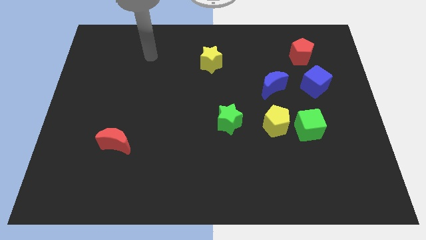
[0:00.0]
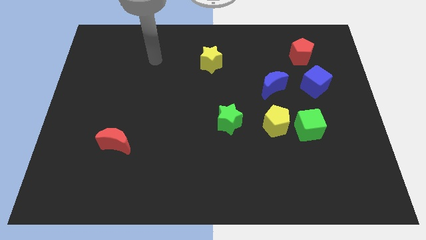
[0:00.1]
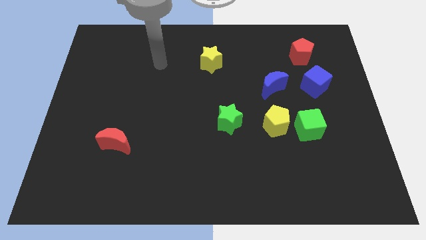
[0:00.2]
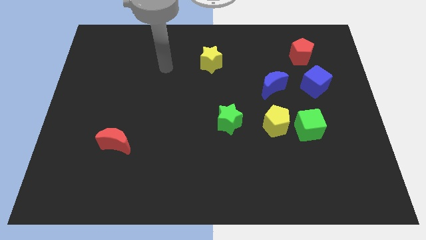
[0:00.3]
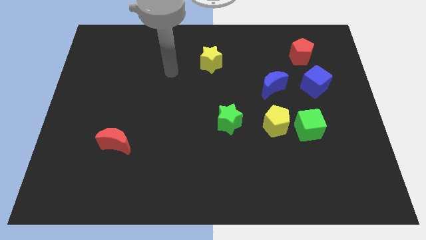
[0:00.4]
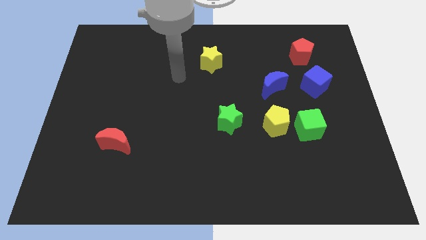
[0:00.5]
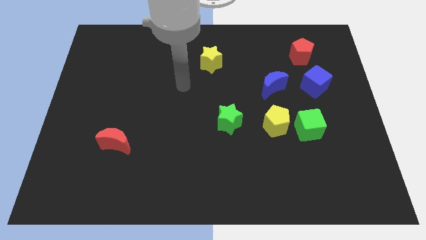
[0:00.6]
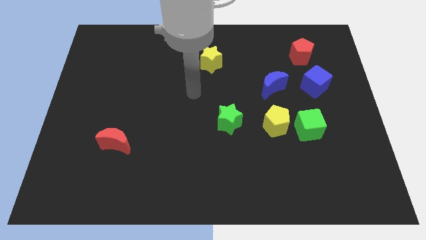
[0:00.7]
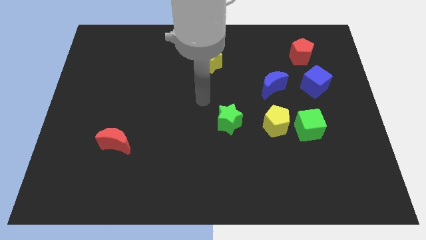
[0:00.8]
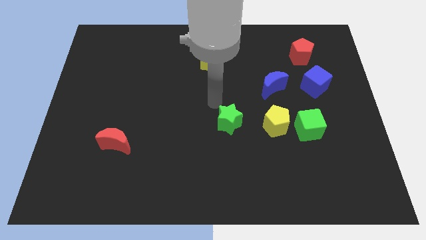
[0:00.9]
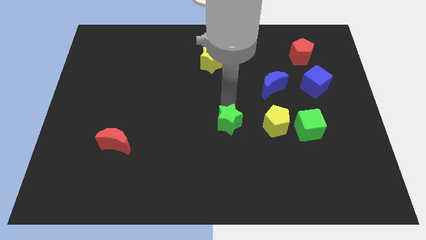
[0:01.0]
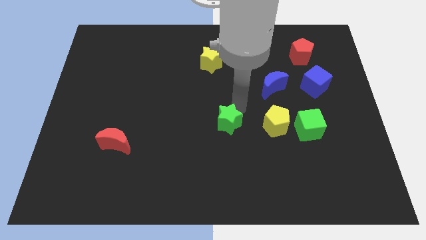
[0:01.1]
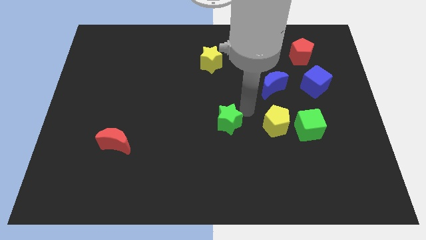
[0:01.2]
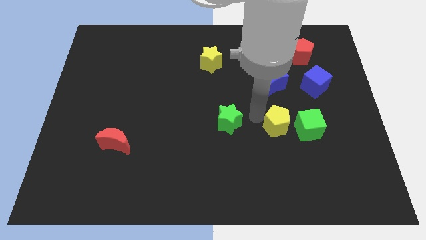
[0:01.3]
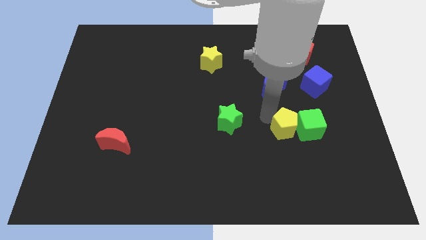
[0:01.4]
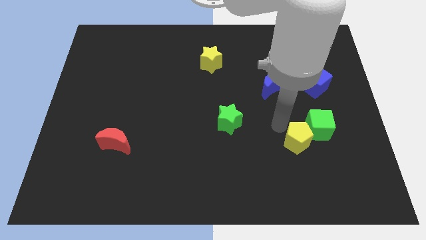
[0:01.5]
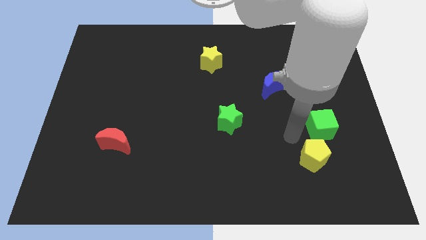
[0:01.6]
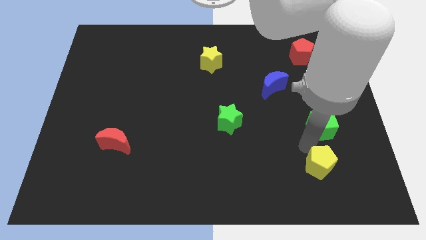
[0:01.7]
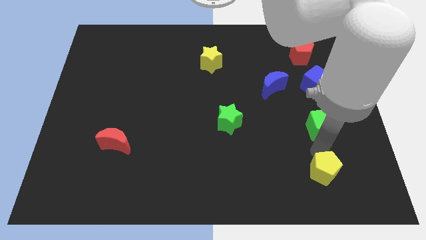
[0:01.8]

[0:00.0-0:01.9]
separate the green cube from the yellow pentagon

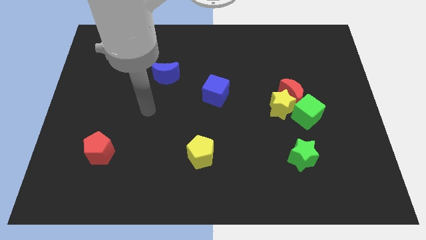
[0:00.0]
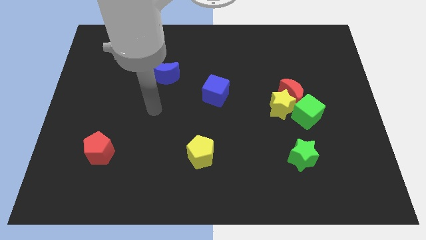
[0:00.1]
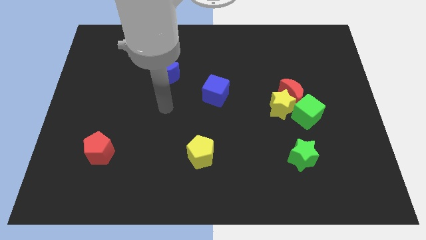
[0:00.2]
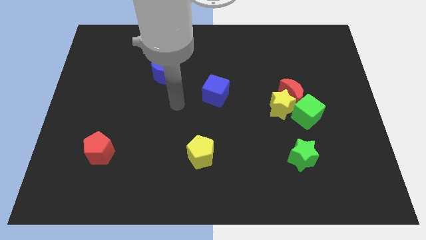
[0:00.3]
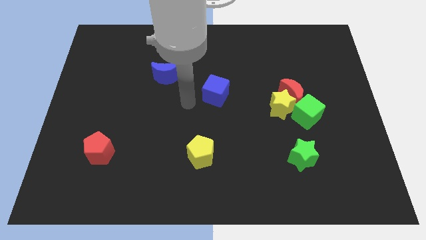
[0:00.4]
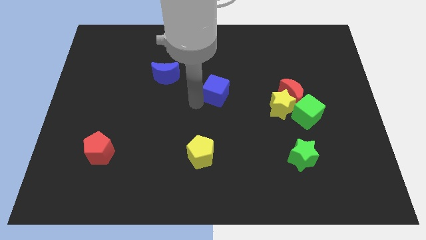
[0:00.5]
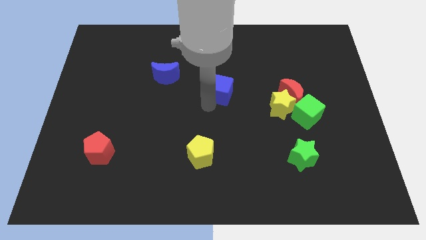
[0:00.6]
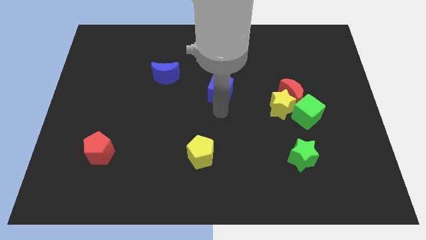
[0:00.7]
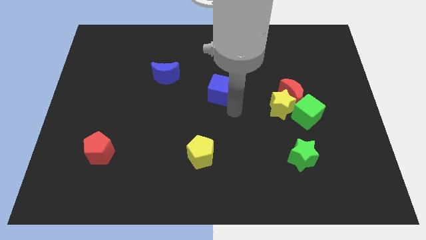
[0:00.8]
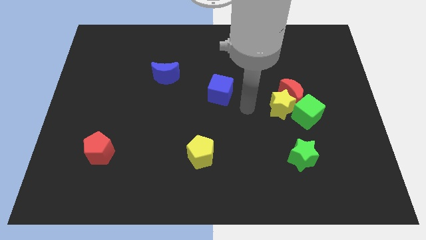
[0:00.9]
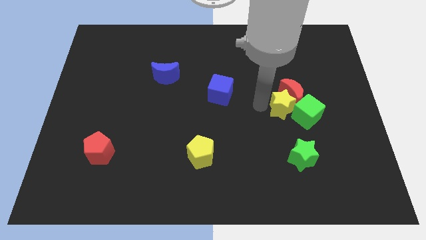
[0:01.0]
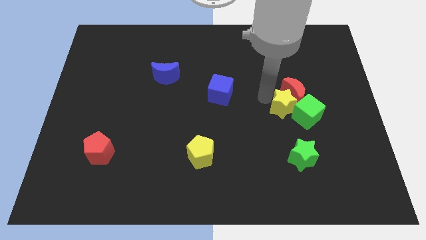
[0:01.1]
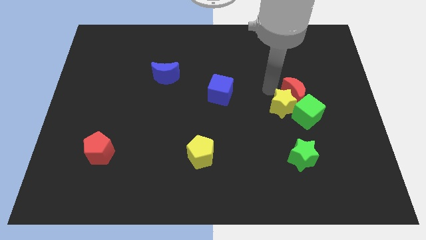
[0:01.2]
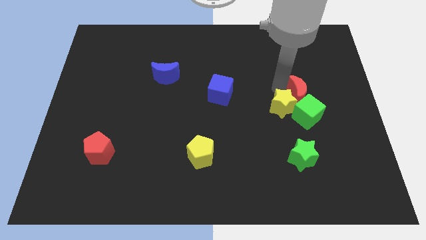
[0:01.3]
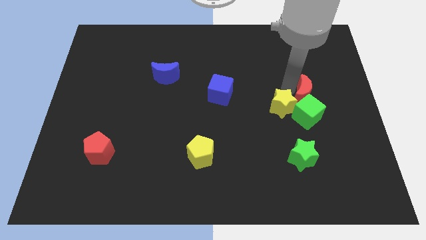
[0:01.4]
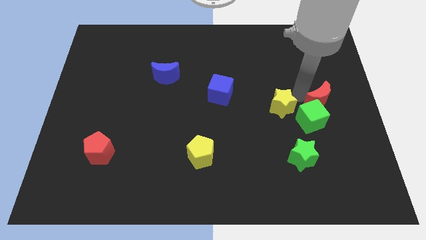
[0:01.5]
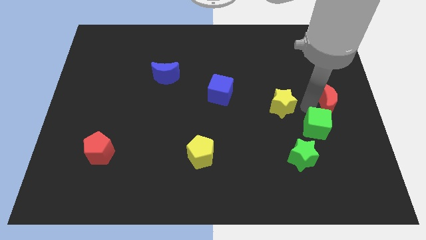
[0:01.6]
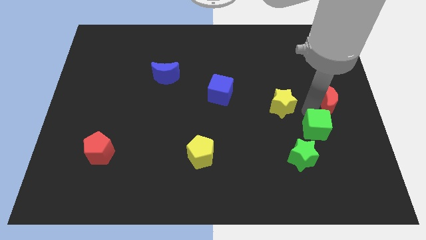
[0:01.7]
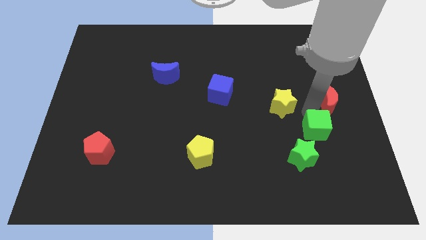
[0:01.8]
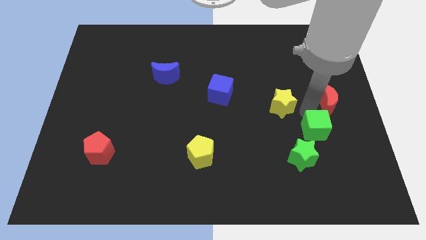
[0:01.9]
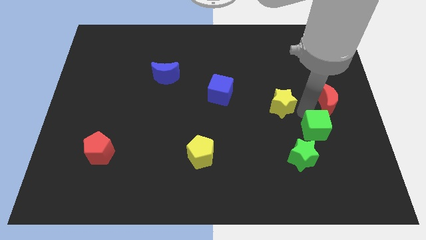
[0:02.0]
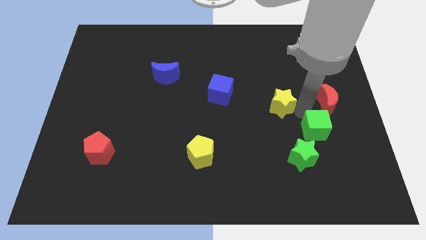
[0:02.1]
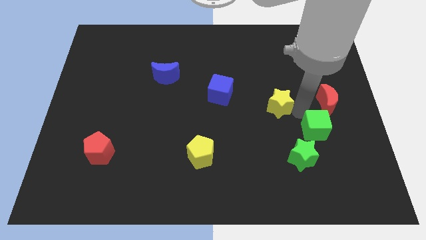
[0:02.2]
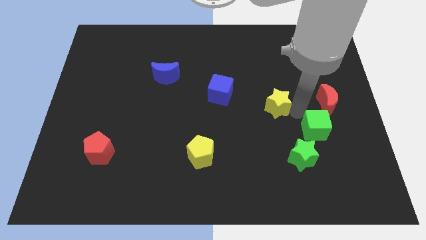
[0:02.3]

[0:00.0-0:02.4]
move the yellow star away from the red moon and green cube

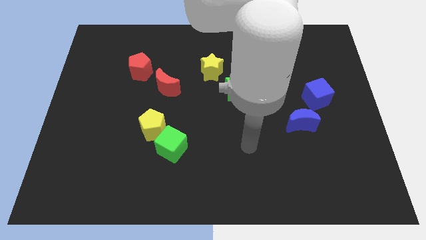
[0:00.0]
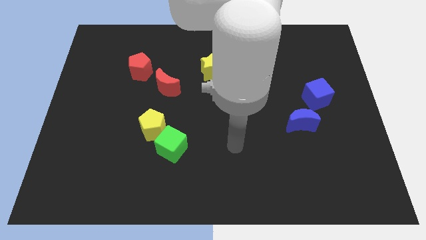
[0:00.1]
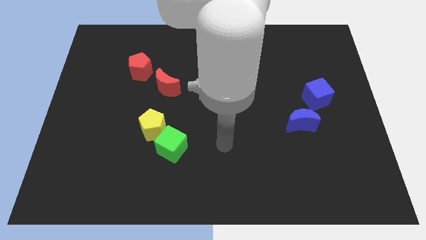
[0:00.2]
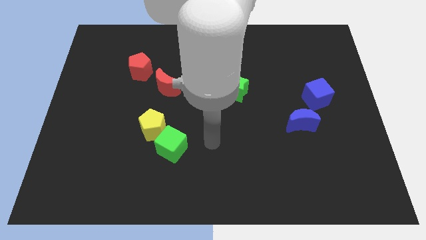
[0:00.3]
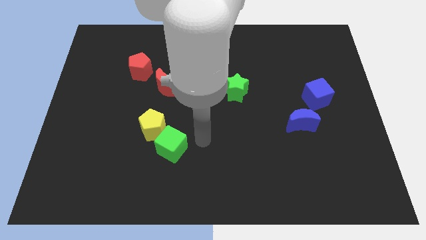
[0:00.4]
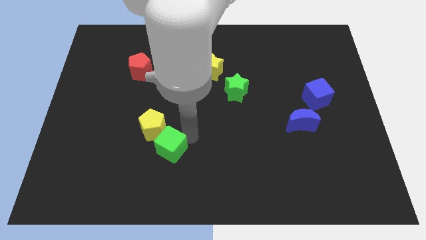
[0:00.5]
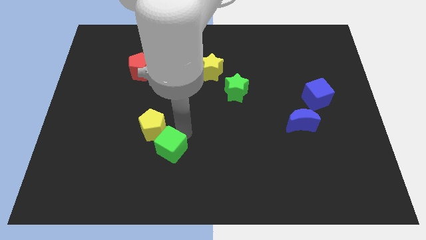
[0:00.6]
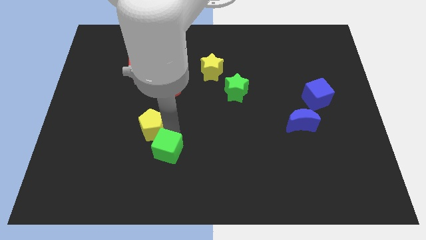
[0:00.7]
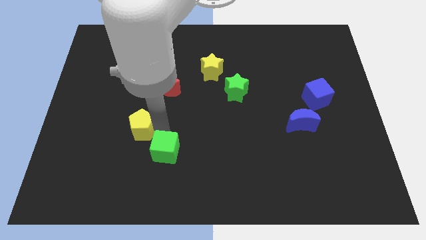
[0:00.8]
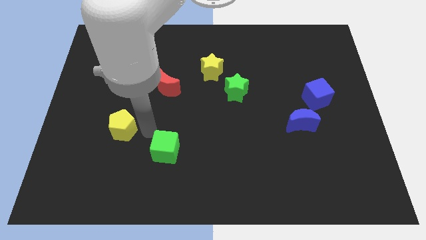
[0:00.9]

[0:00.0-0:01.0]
pull the green cube apart from the yellow pentagon

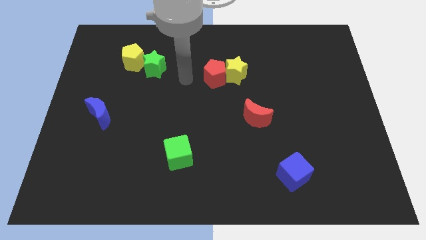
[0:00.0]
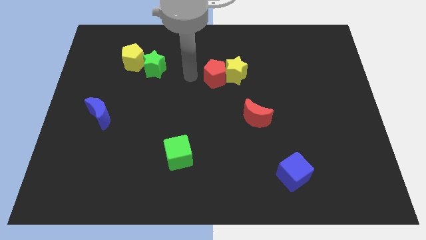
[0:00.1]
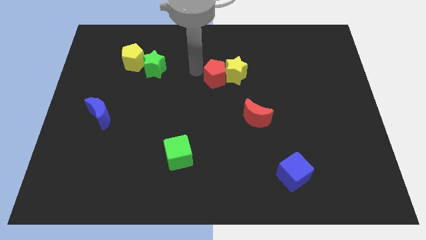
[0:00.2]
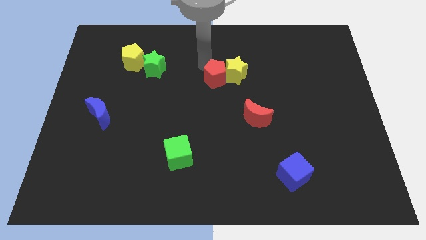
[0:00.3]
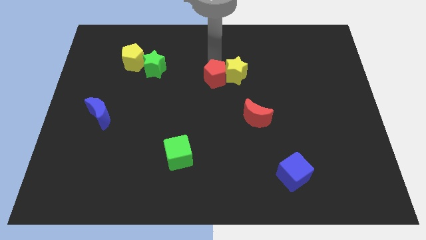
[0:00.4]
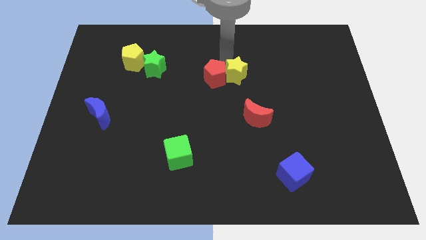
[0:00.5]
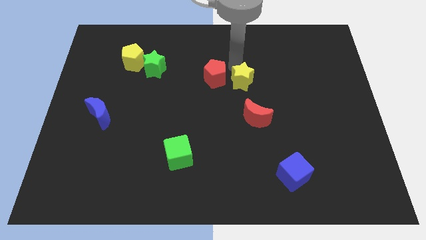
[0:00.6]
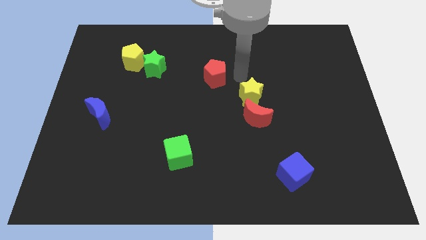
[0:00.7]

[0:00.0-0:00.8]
pull the red pentagon apart from the yellow star

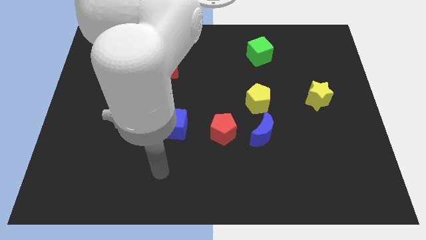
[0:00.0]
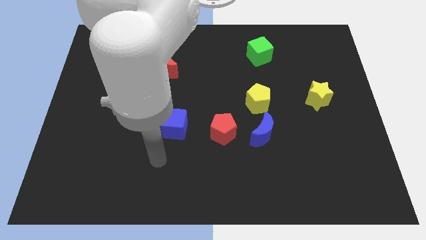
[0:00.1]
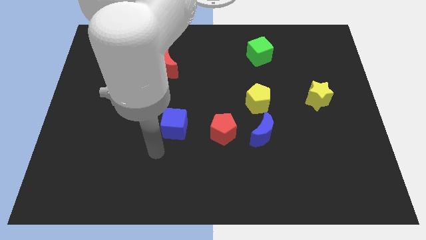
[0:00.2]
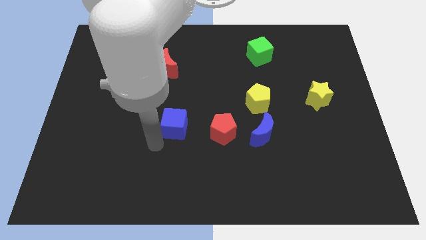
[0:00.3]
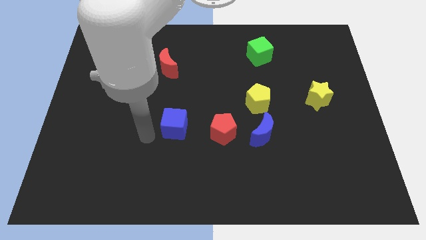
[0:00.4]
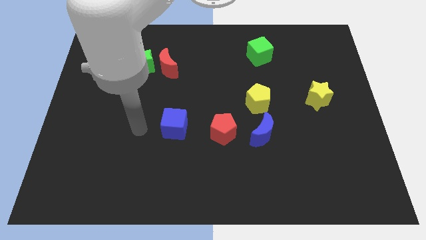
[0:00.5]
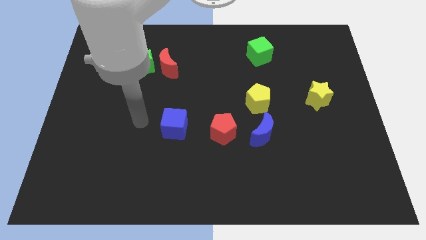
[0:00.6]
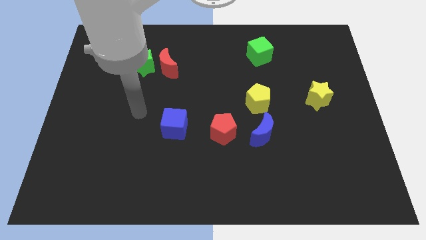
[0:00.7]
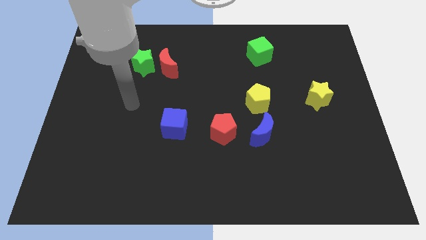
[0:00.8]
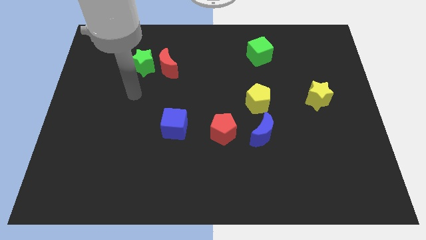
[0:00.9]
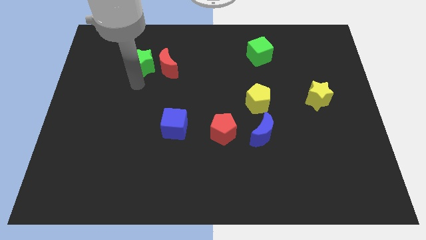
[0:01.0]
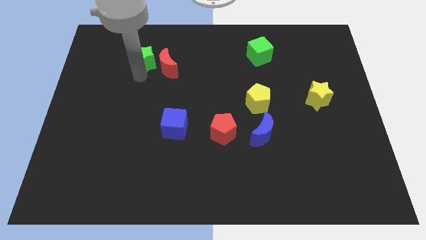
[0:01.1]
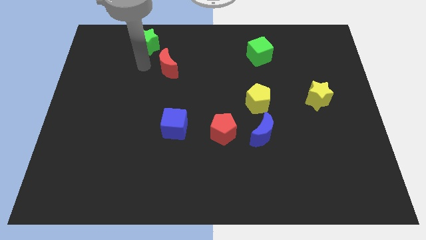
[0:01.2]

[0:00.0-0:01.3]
pull the red moon apart from the green star

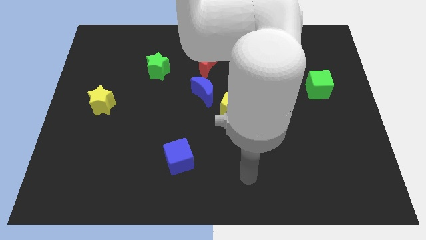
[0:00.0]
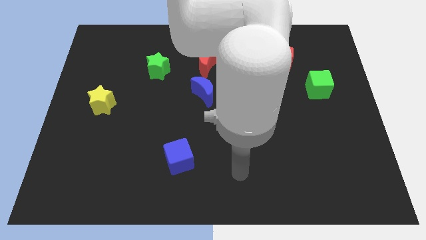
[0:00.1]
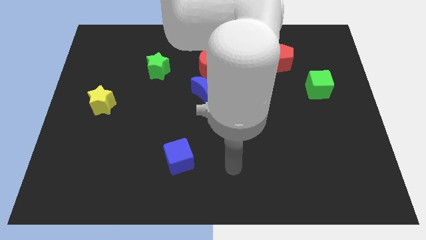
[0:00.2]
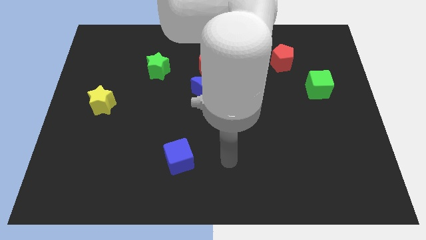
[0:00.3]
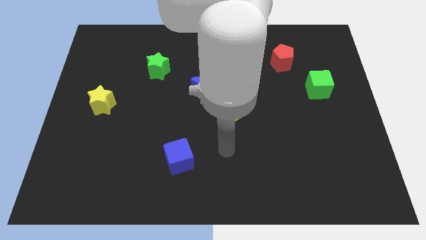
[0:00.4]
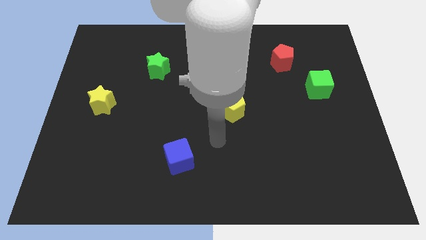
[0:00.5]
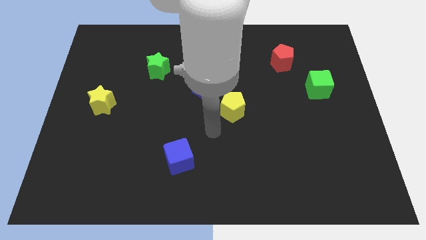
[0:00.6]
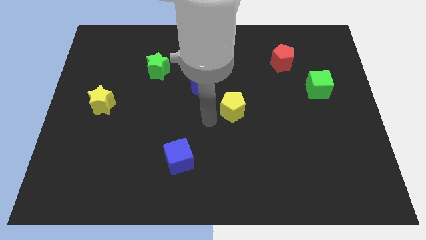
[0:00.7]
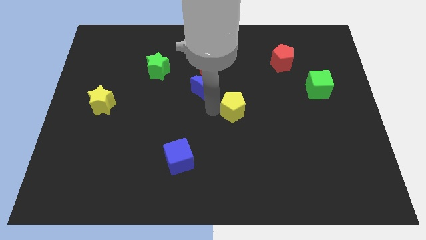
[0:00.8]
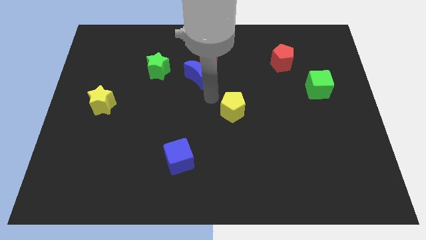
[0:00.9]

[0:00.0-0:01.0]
move the yellow pentagon away from the blue moon

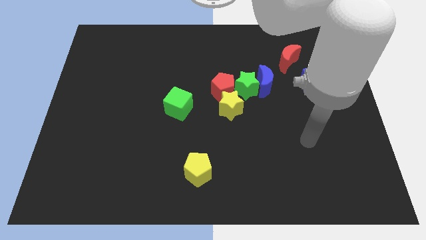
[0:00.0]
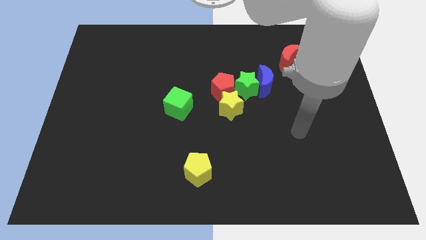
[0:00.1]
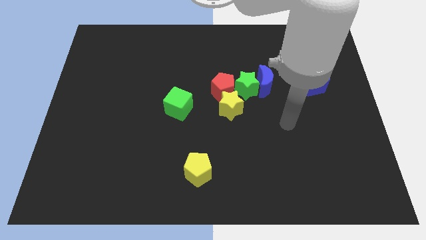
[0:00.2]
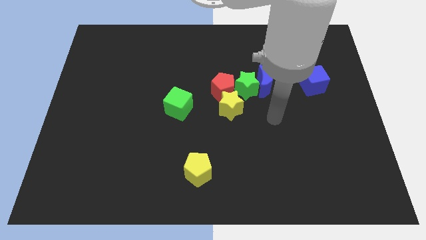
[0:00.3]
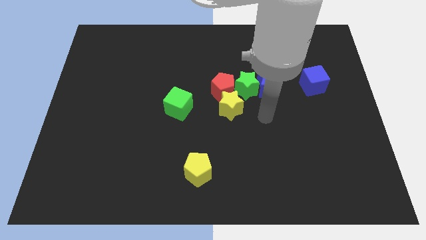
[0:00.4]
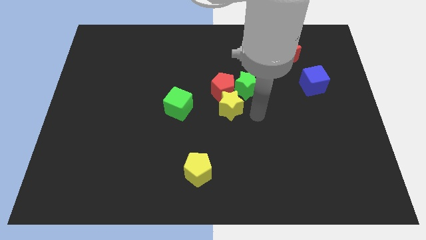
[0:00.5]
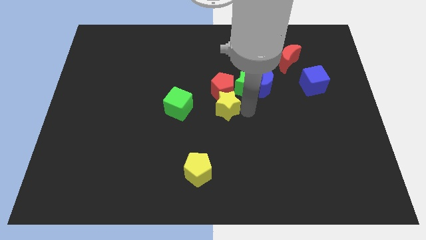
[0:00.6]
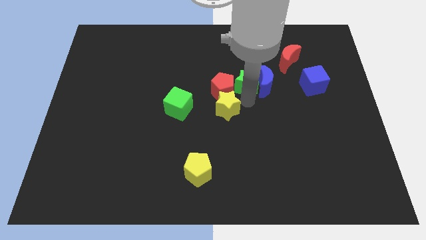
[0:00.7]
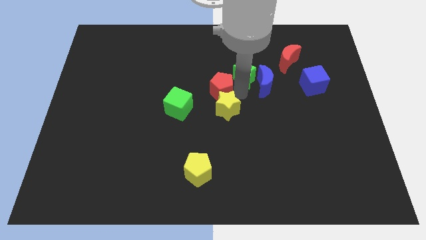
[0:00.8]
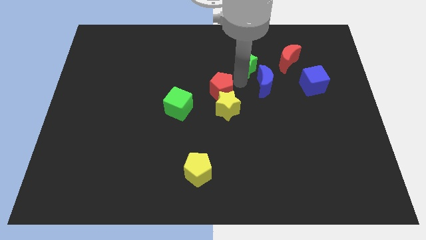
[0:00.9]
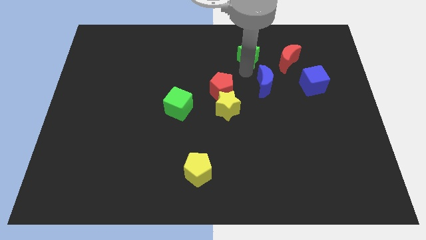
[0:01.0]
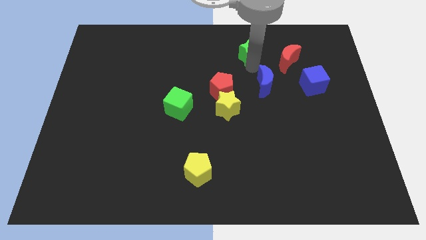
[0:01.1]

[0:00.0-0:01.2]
separate the blue moon from the green star
